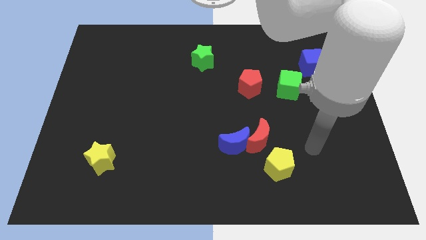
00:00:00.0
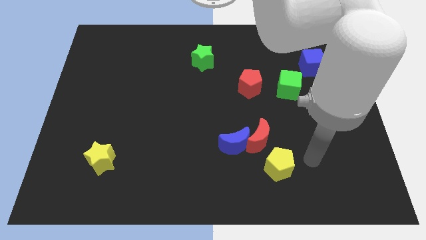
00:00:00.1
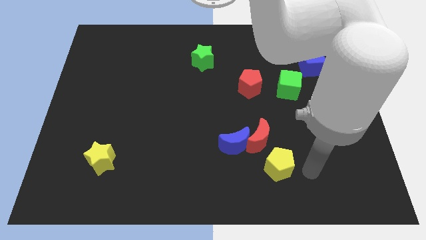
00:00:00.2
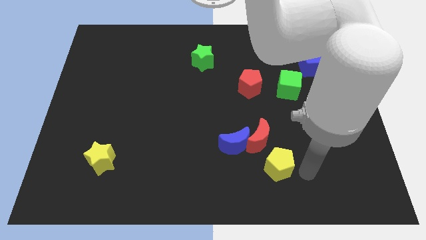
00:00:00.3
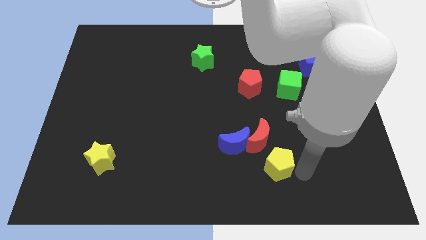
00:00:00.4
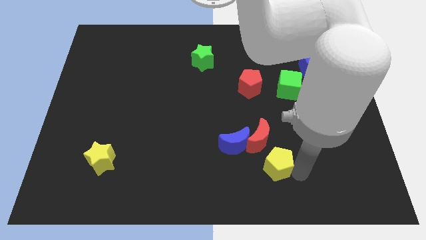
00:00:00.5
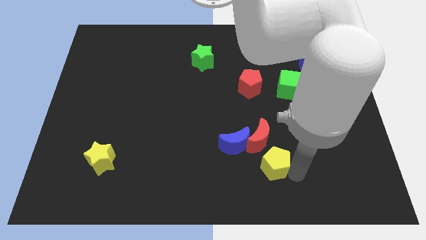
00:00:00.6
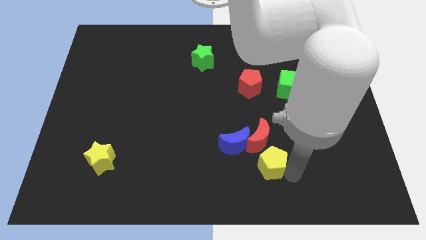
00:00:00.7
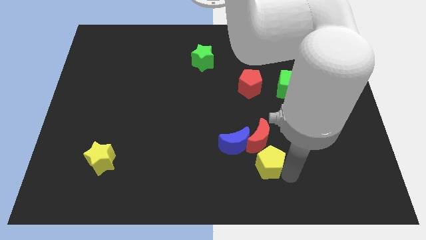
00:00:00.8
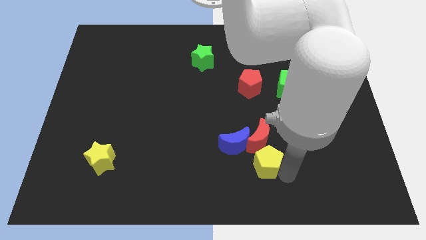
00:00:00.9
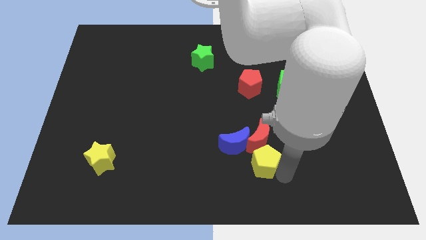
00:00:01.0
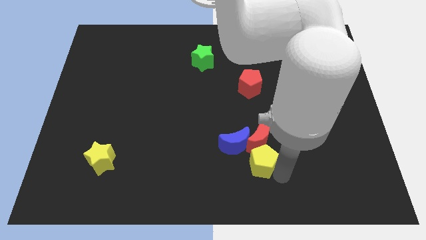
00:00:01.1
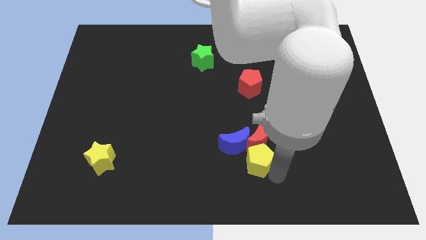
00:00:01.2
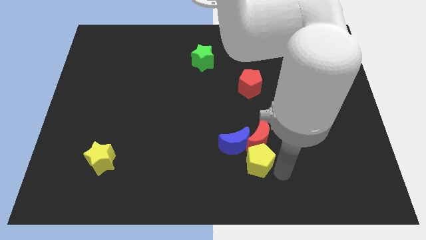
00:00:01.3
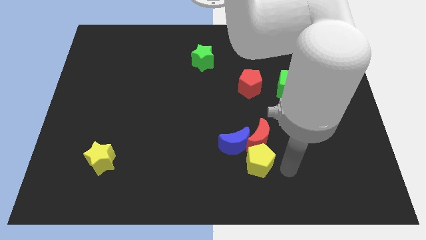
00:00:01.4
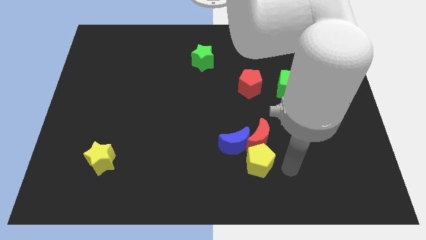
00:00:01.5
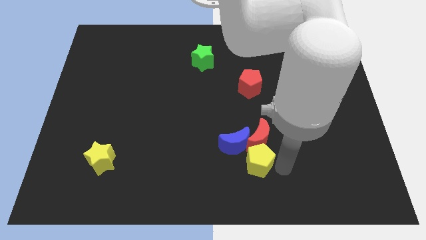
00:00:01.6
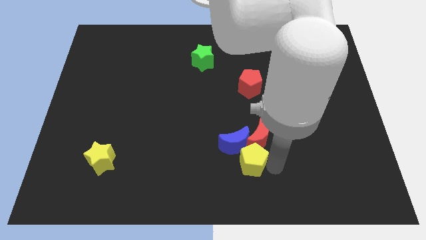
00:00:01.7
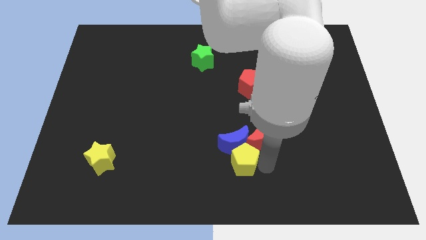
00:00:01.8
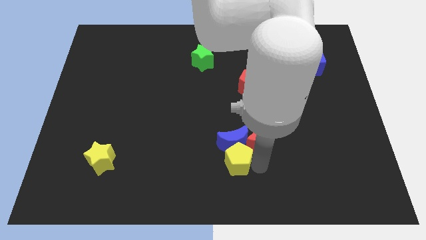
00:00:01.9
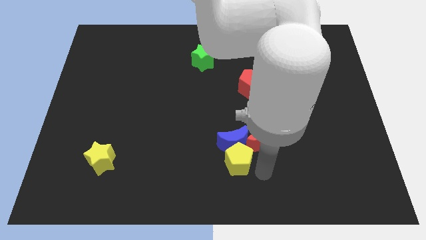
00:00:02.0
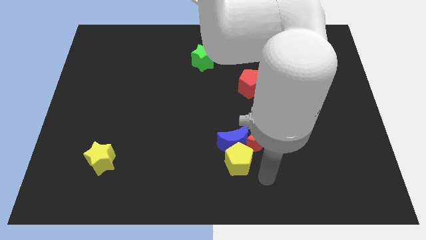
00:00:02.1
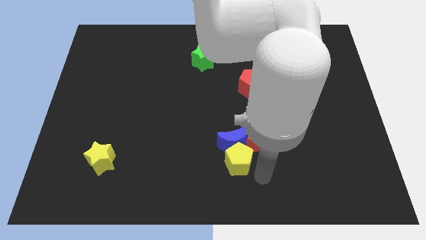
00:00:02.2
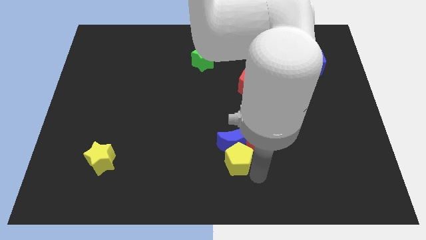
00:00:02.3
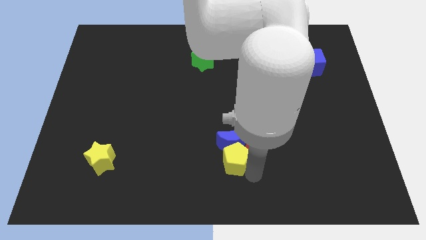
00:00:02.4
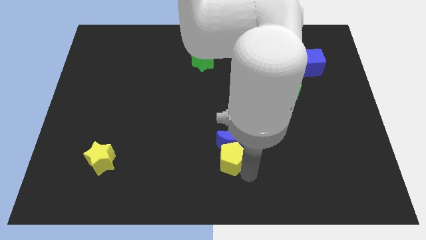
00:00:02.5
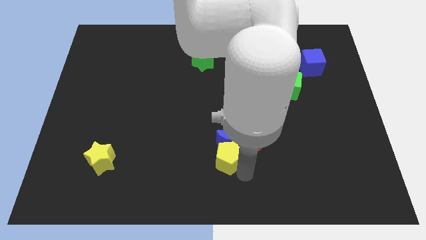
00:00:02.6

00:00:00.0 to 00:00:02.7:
slightly move the yellow pentagon upwards and to the left diagonally

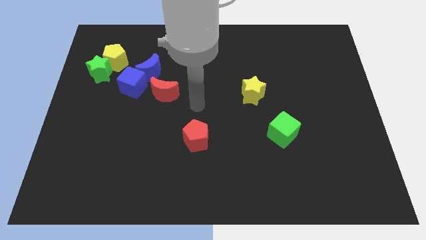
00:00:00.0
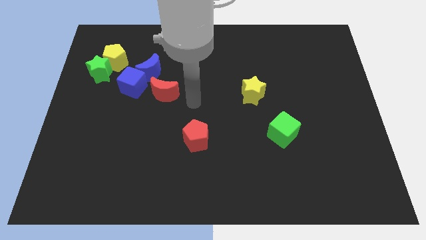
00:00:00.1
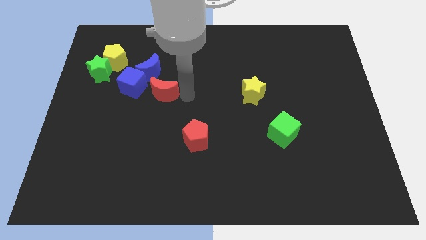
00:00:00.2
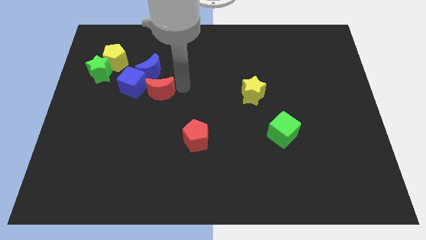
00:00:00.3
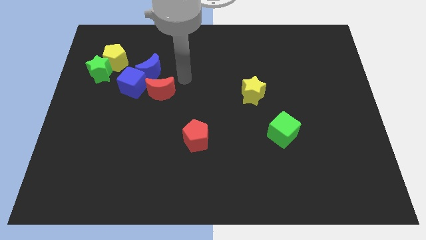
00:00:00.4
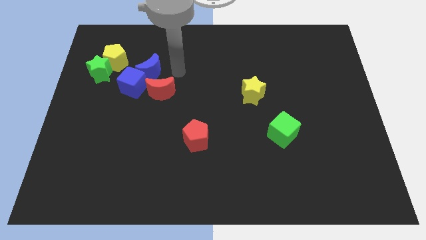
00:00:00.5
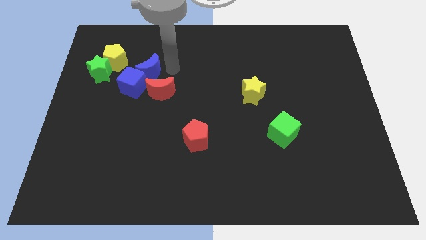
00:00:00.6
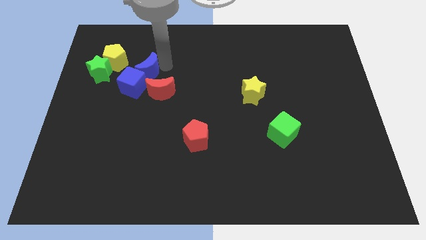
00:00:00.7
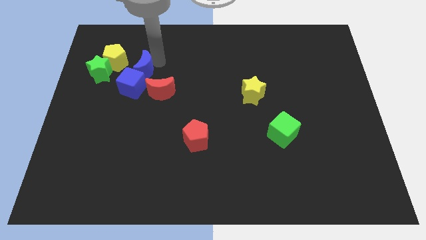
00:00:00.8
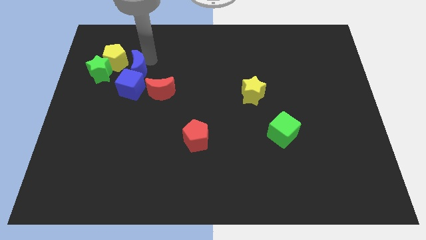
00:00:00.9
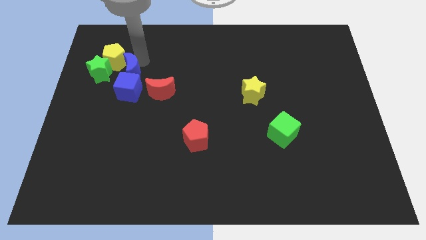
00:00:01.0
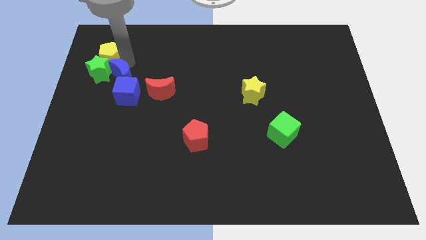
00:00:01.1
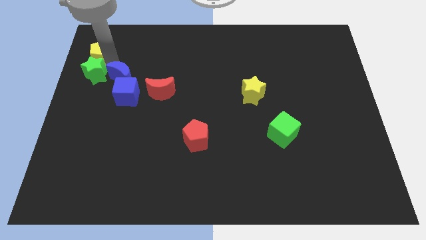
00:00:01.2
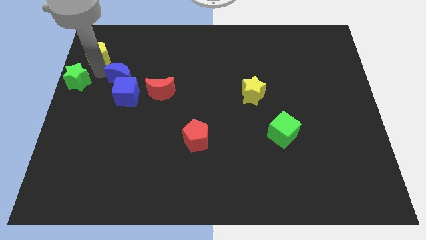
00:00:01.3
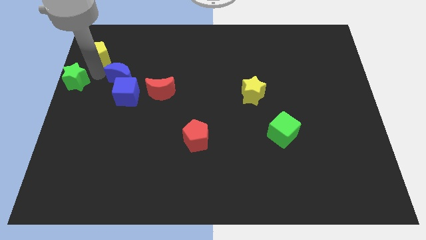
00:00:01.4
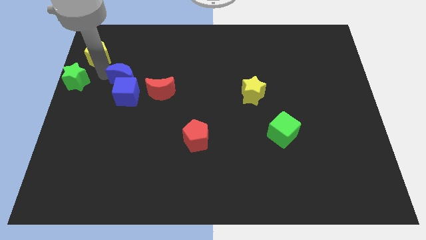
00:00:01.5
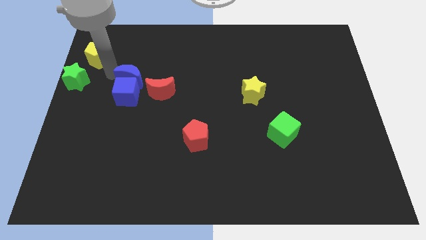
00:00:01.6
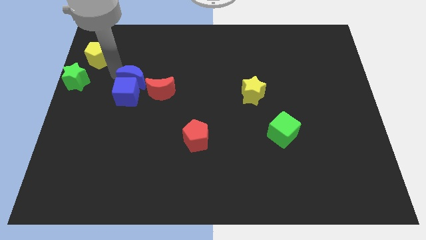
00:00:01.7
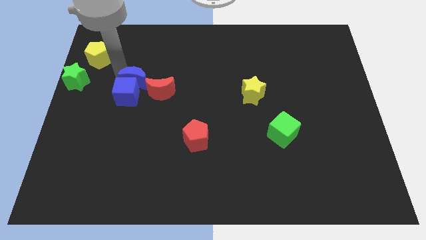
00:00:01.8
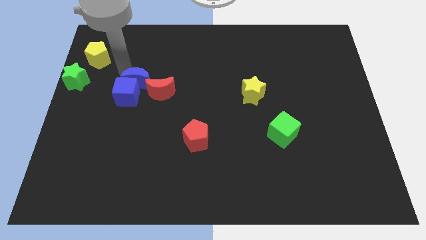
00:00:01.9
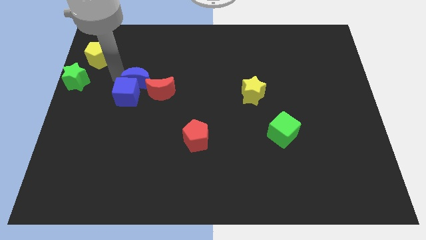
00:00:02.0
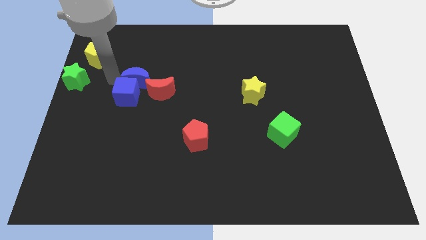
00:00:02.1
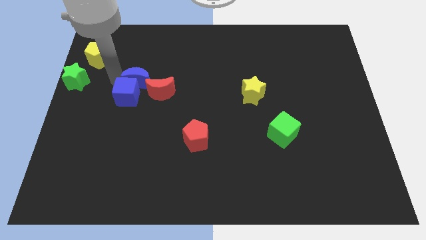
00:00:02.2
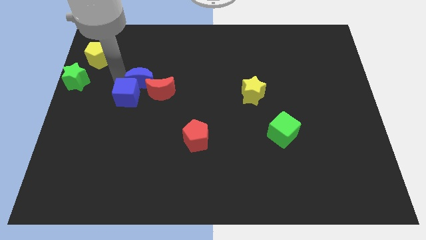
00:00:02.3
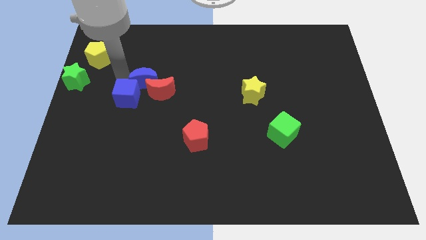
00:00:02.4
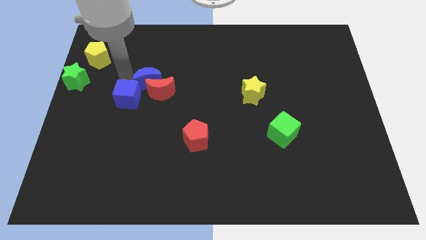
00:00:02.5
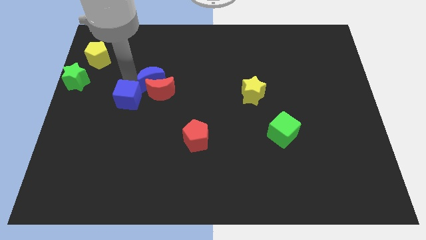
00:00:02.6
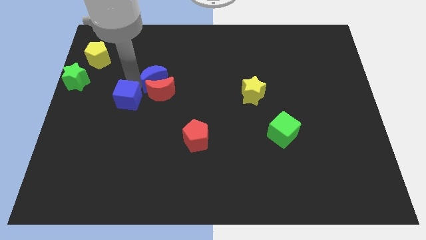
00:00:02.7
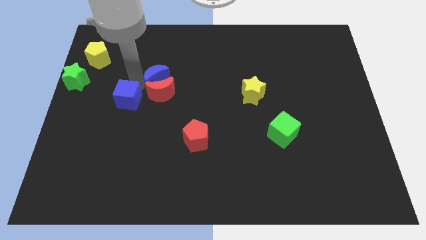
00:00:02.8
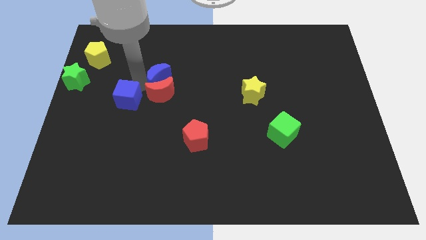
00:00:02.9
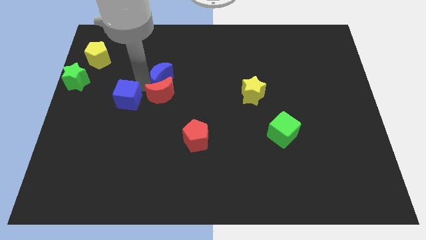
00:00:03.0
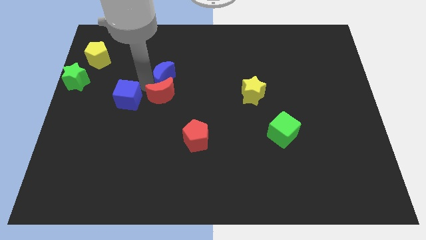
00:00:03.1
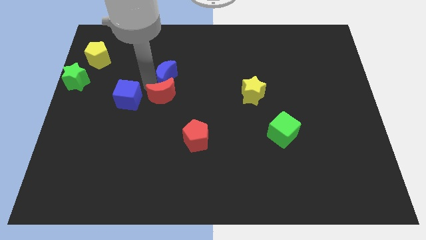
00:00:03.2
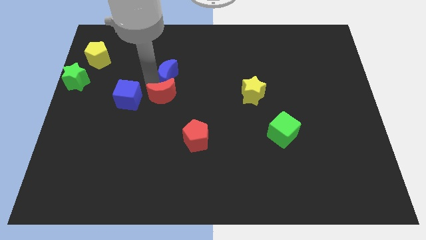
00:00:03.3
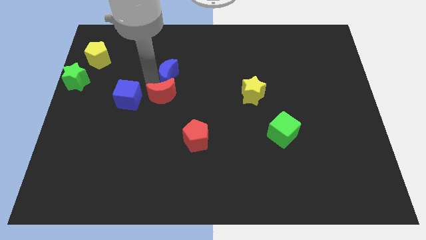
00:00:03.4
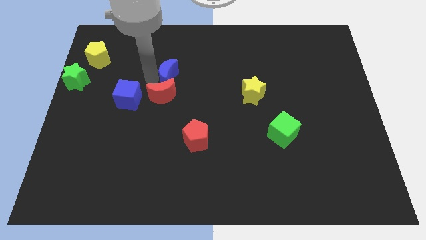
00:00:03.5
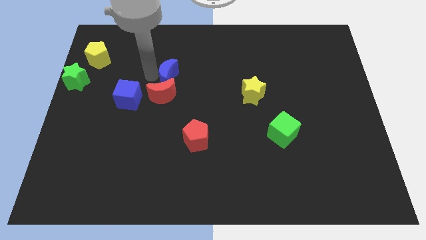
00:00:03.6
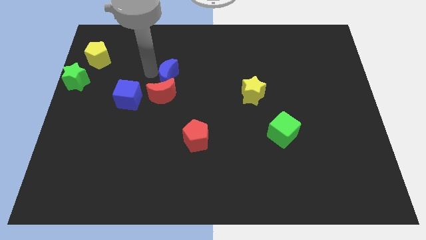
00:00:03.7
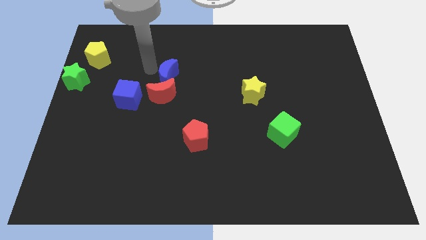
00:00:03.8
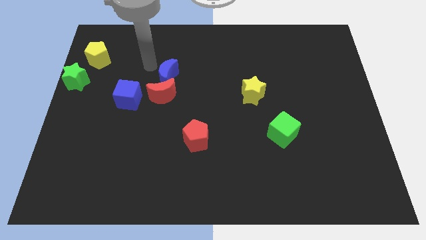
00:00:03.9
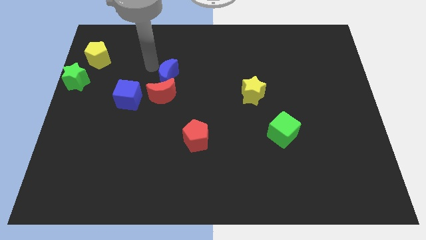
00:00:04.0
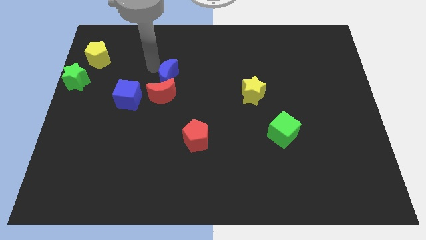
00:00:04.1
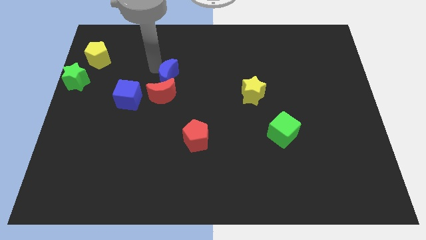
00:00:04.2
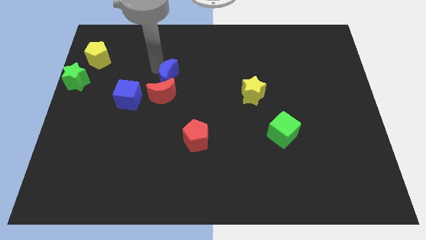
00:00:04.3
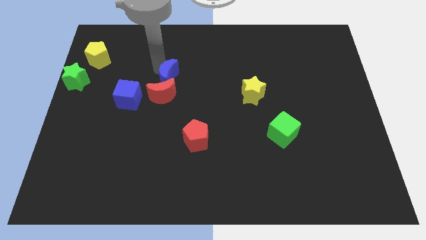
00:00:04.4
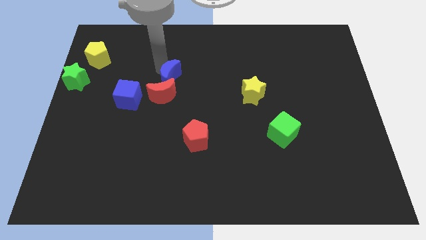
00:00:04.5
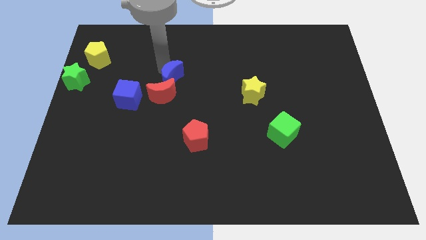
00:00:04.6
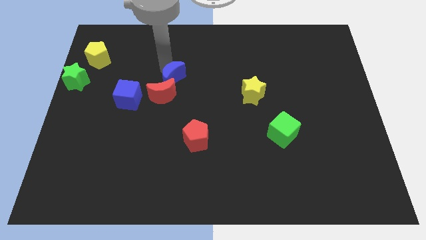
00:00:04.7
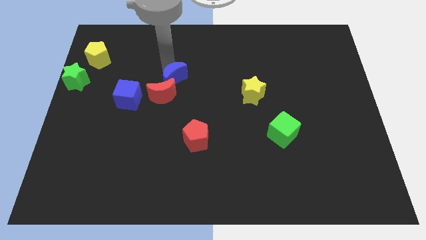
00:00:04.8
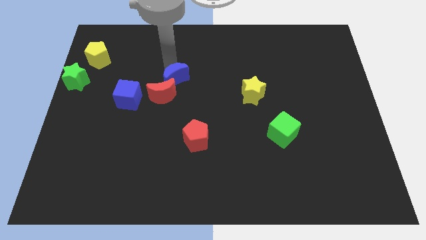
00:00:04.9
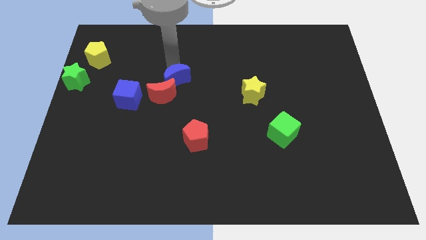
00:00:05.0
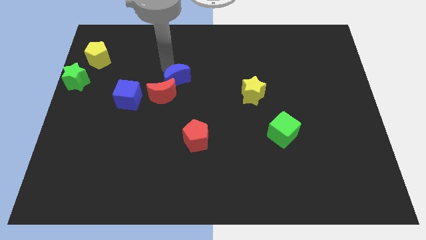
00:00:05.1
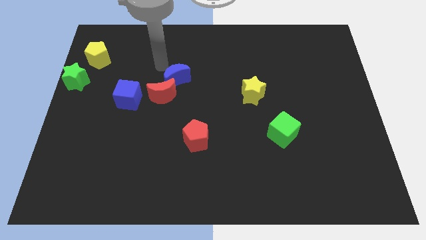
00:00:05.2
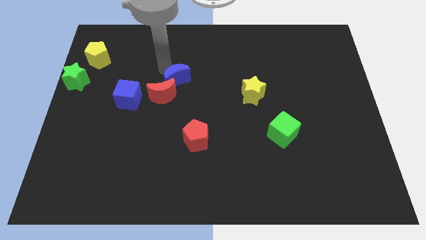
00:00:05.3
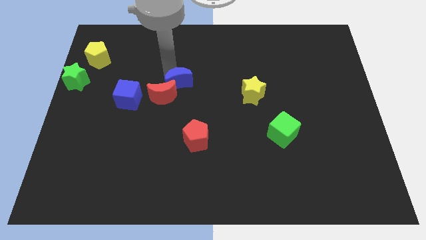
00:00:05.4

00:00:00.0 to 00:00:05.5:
move the blue moon down and then right a little
